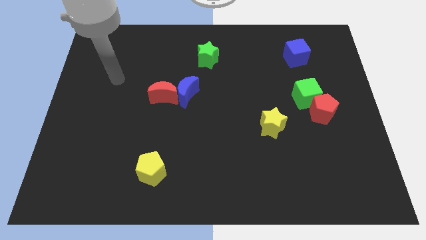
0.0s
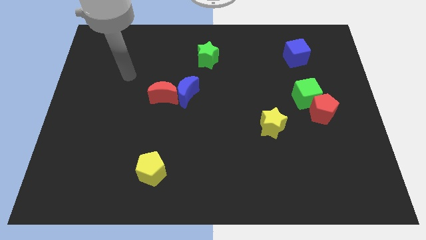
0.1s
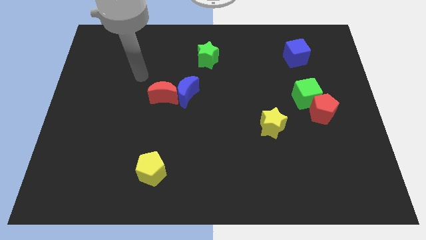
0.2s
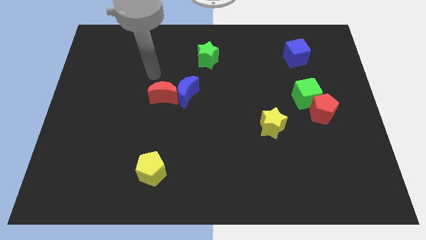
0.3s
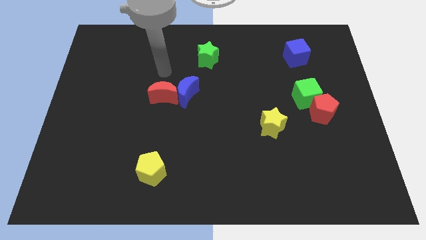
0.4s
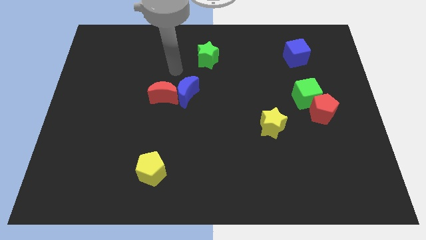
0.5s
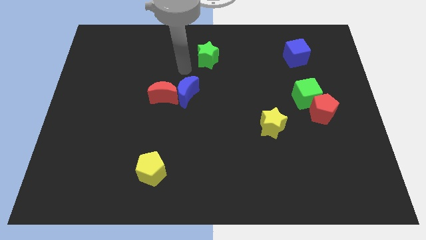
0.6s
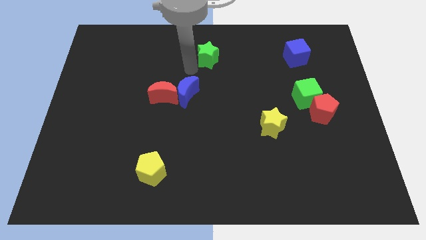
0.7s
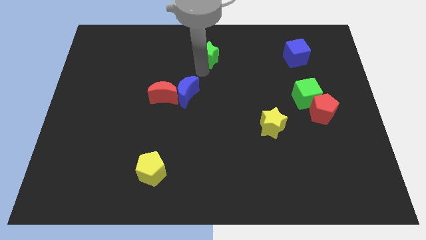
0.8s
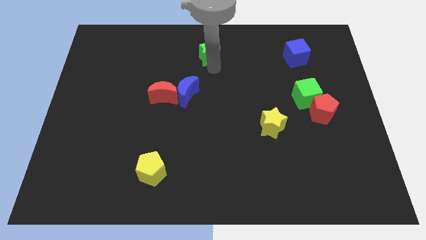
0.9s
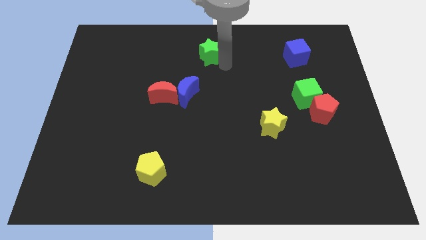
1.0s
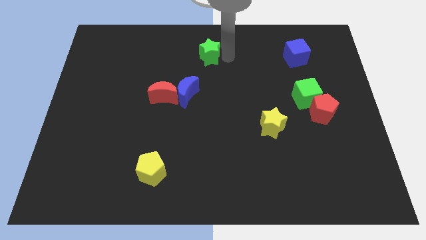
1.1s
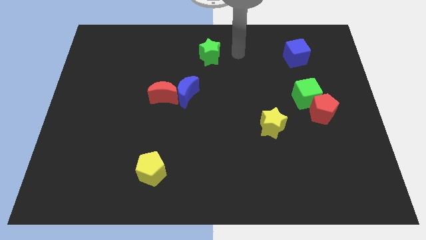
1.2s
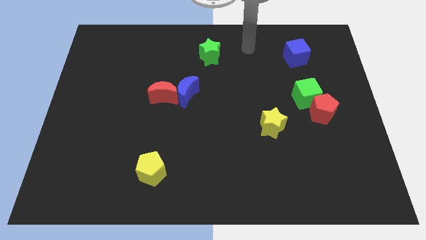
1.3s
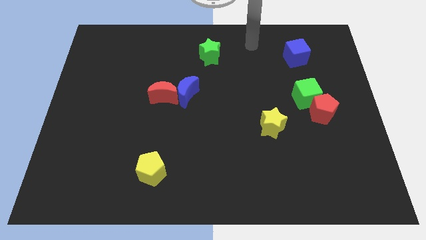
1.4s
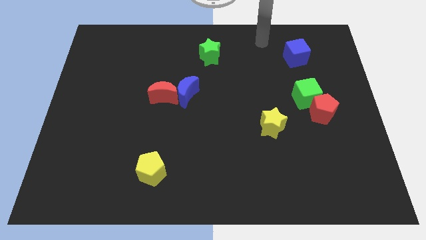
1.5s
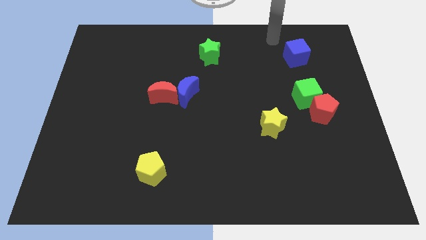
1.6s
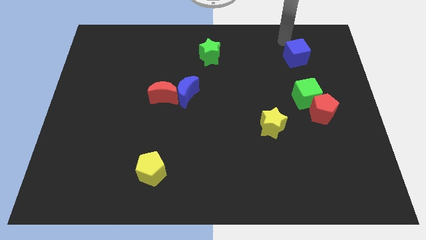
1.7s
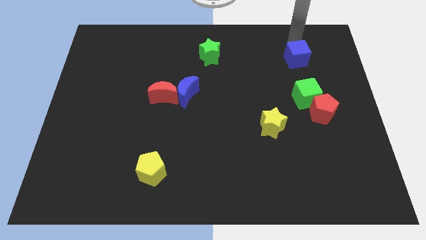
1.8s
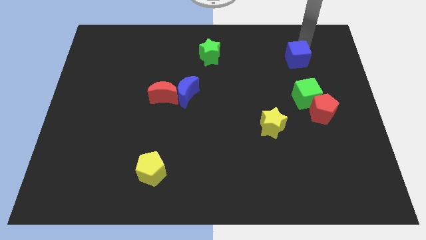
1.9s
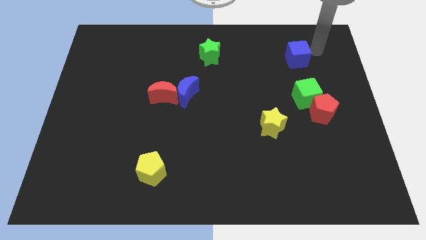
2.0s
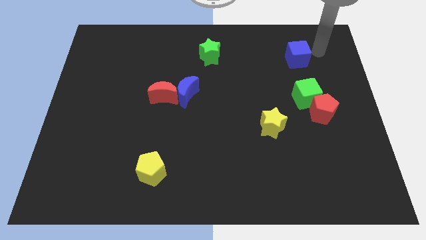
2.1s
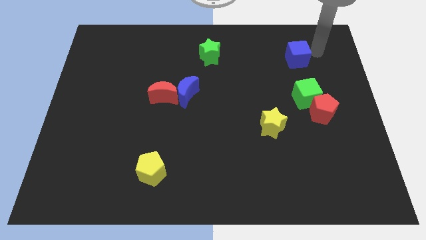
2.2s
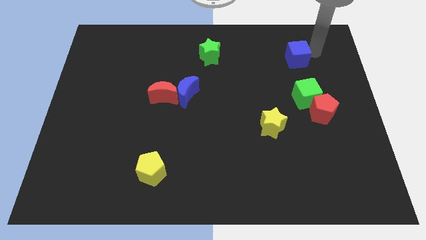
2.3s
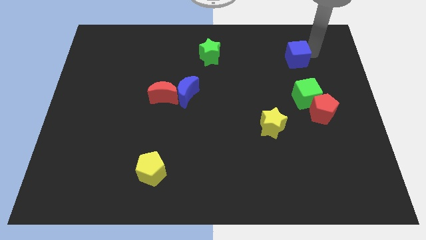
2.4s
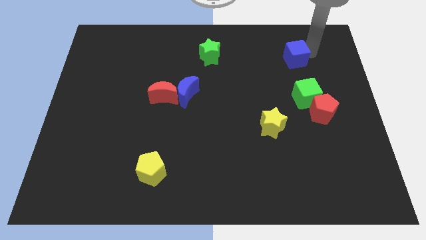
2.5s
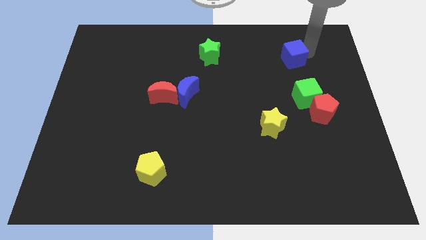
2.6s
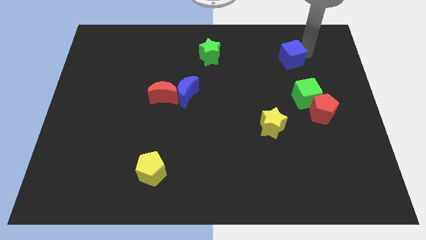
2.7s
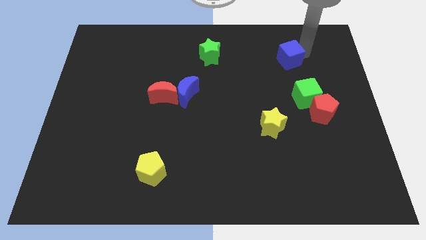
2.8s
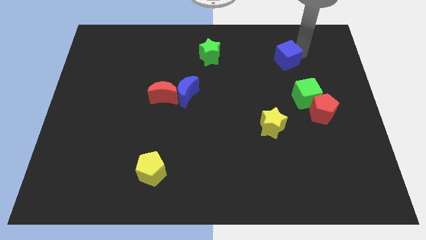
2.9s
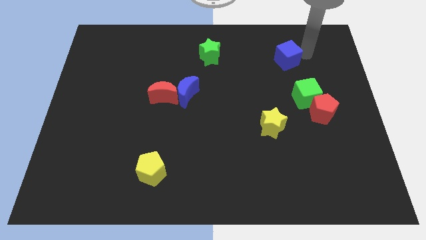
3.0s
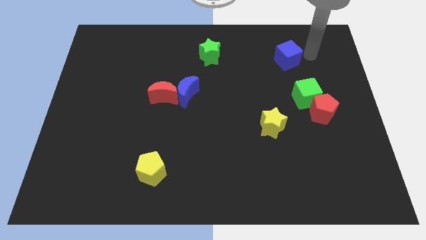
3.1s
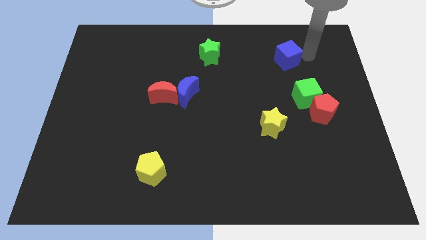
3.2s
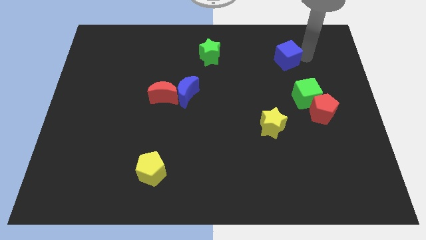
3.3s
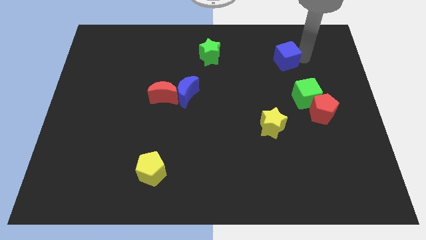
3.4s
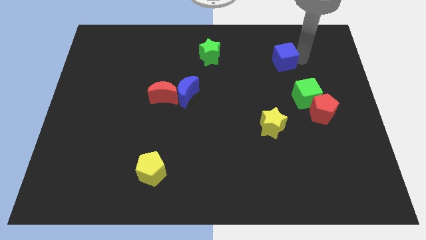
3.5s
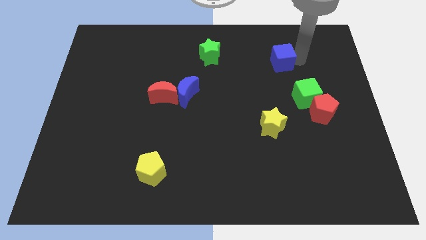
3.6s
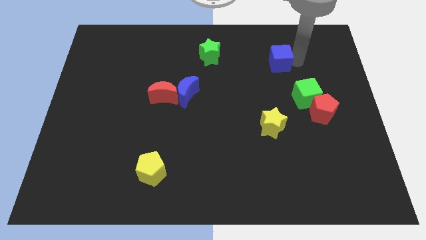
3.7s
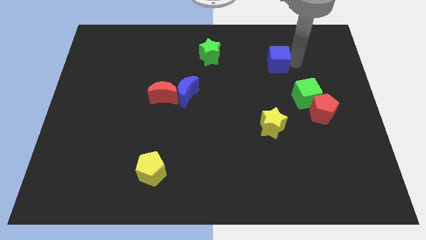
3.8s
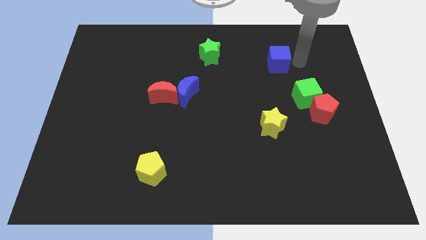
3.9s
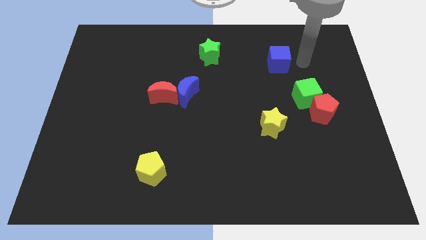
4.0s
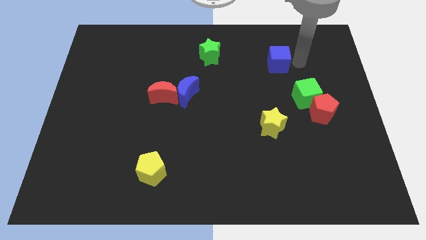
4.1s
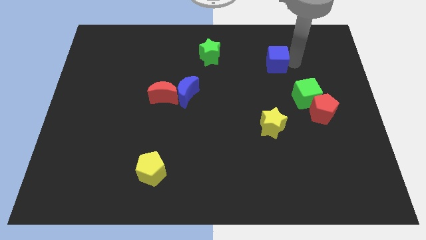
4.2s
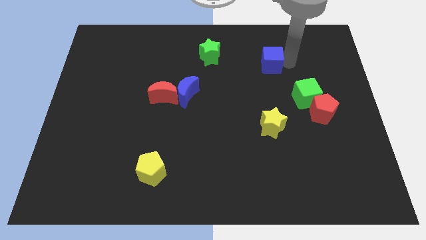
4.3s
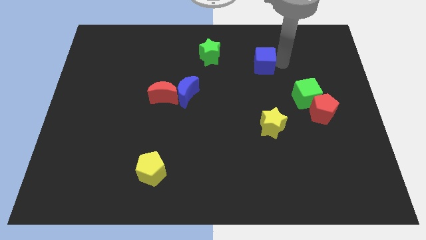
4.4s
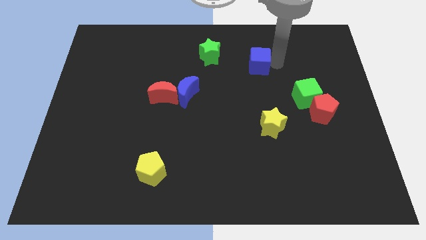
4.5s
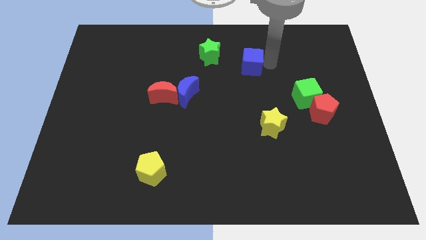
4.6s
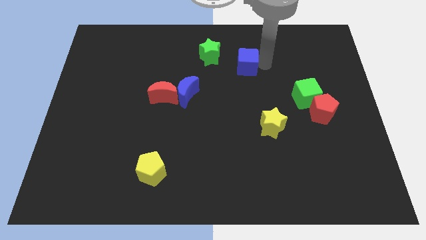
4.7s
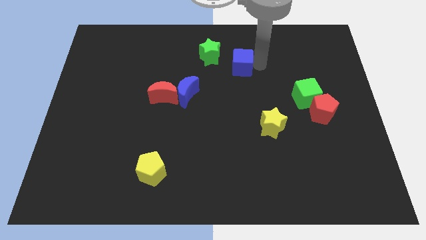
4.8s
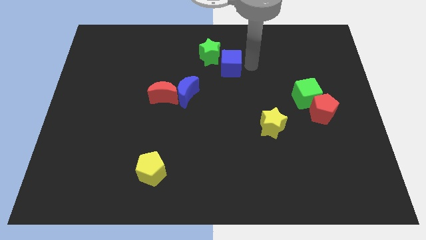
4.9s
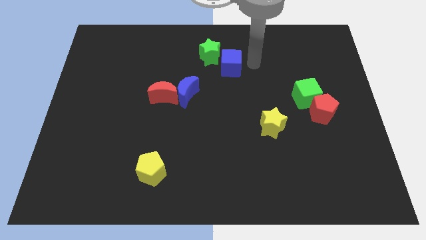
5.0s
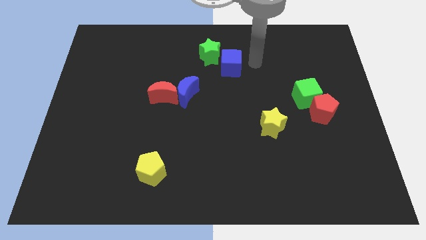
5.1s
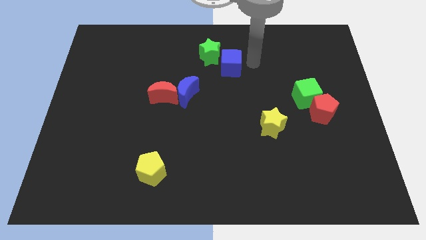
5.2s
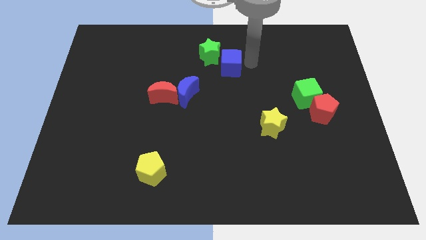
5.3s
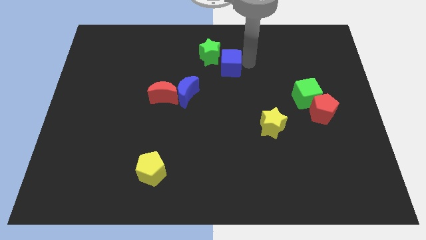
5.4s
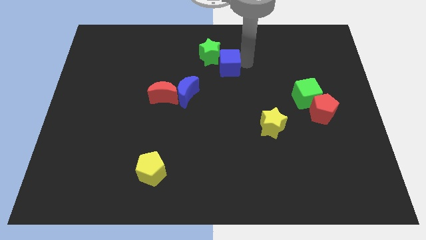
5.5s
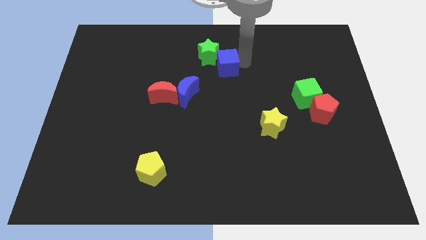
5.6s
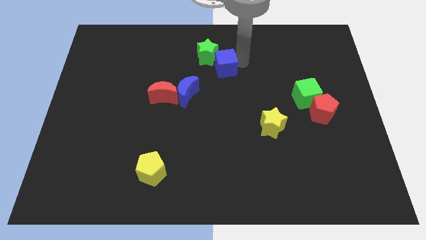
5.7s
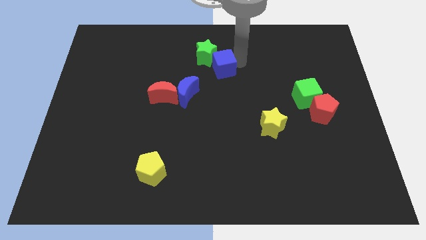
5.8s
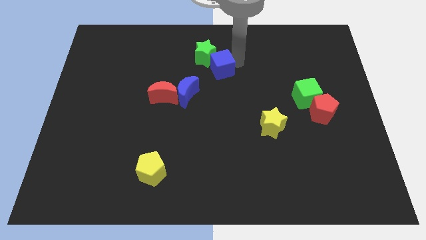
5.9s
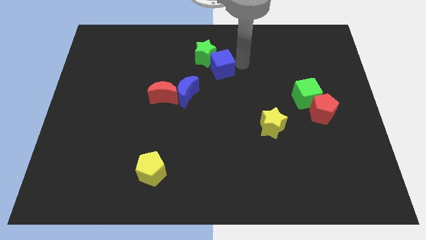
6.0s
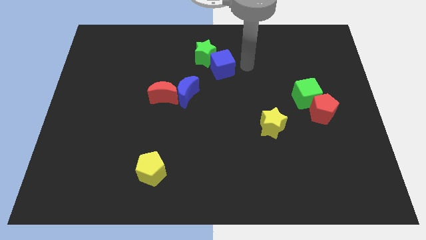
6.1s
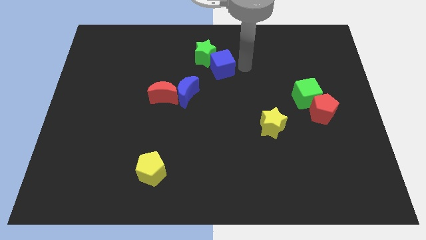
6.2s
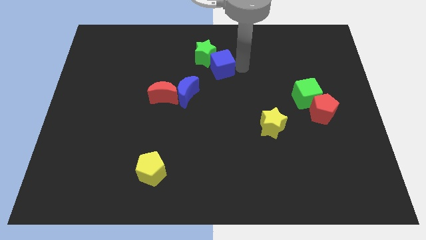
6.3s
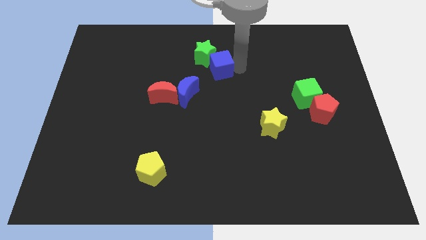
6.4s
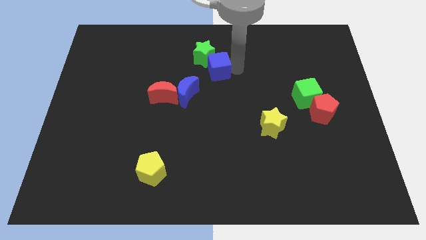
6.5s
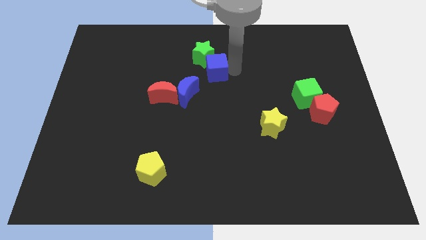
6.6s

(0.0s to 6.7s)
move the blue cube to the left

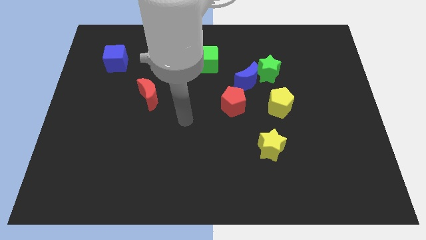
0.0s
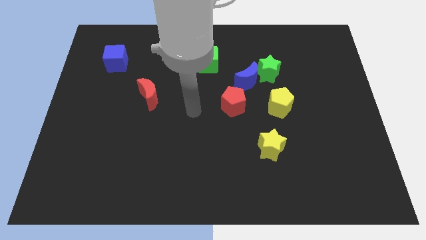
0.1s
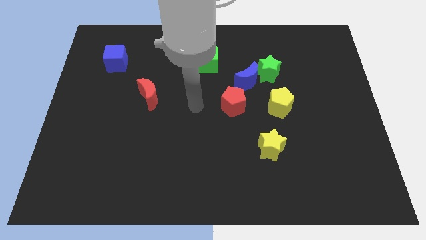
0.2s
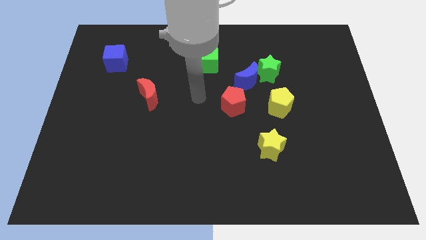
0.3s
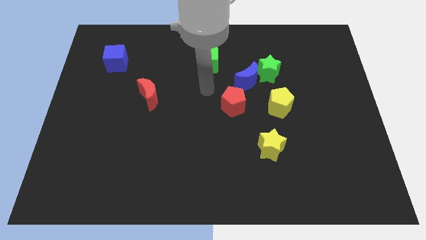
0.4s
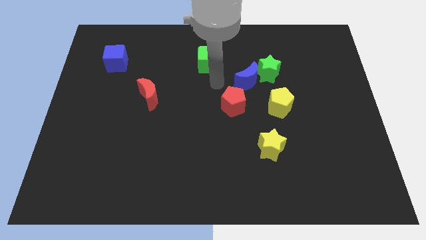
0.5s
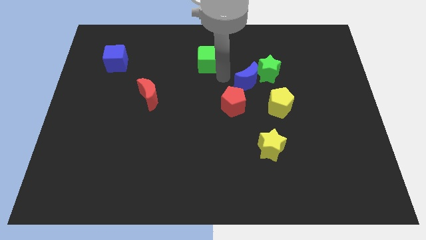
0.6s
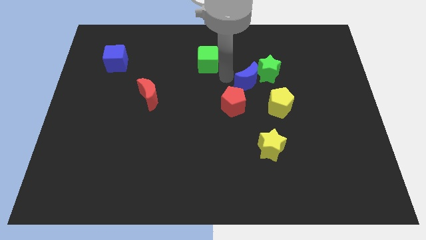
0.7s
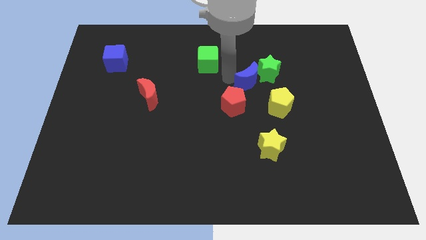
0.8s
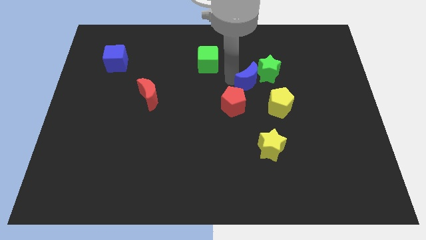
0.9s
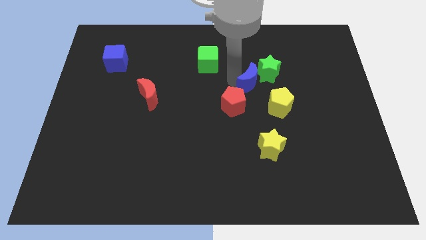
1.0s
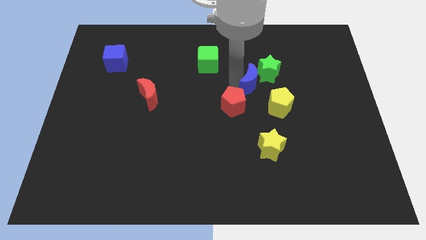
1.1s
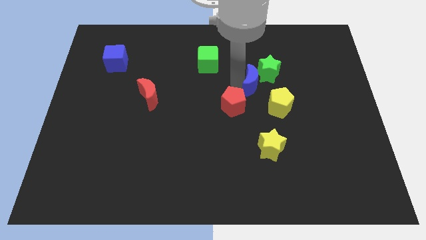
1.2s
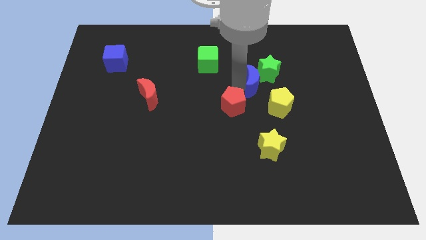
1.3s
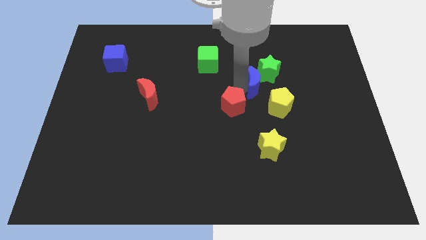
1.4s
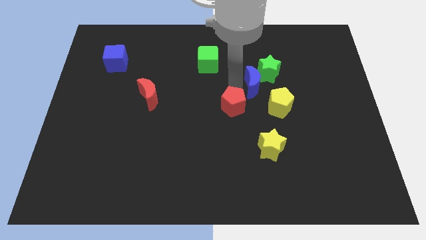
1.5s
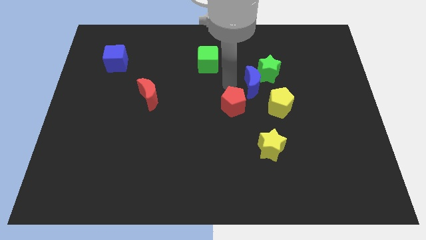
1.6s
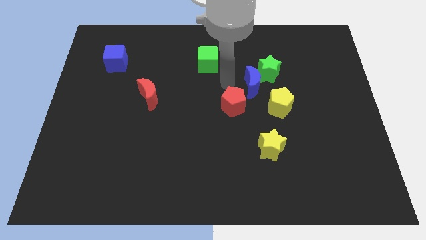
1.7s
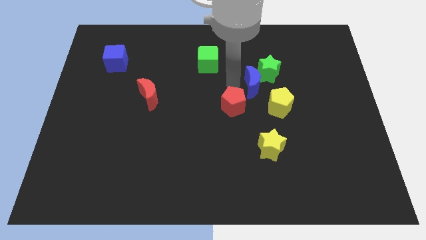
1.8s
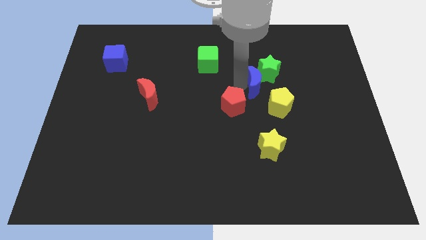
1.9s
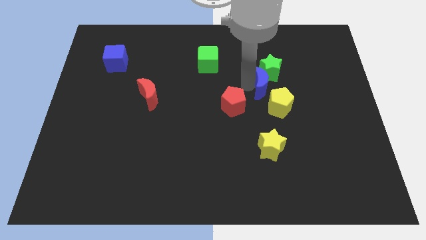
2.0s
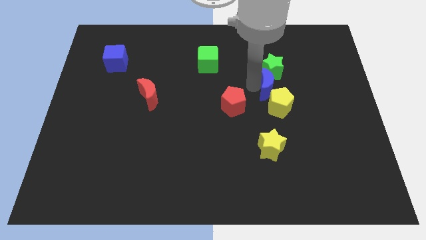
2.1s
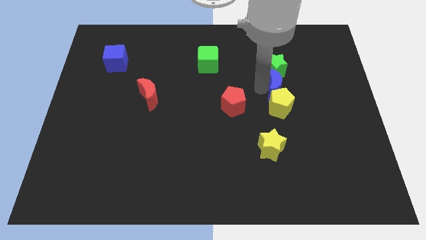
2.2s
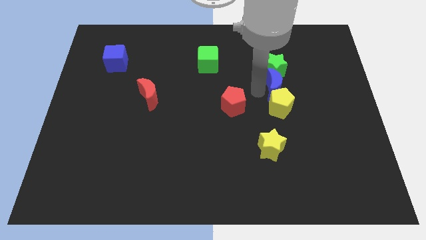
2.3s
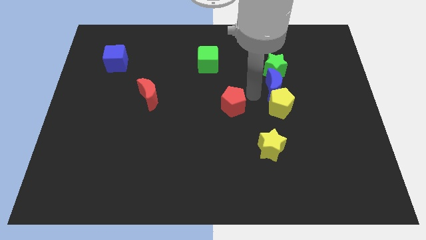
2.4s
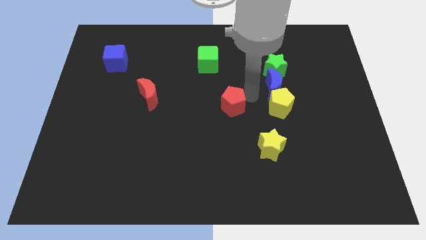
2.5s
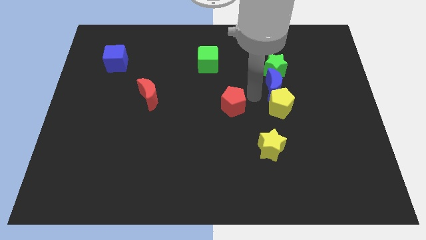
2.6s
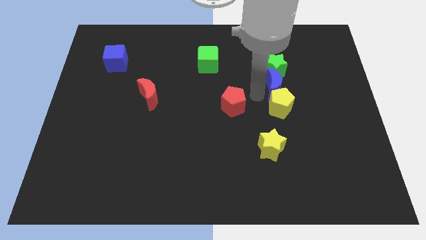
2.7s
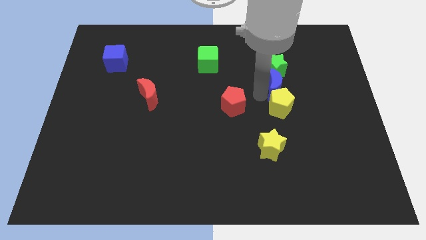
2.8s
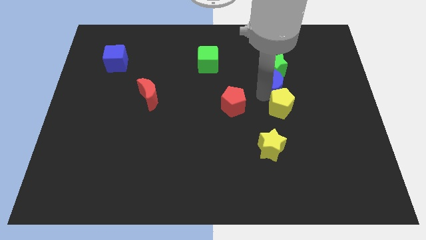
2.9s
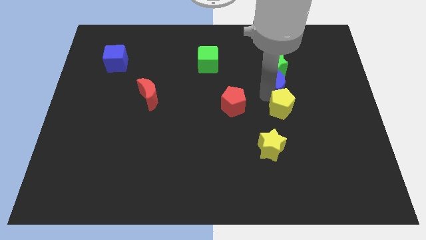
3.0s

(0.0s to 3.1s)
move the blue moon a little right
